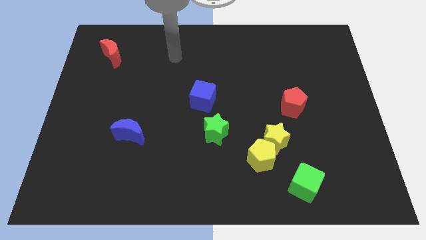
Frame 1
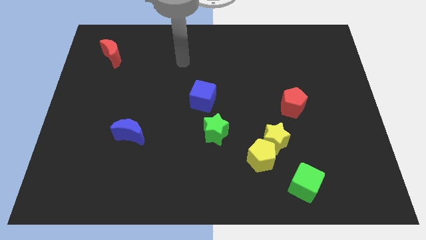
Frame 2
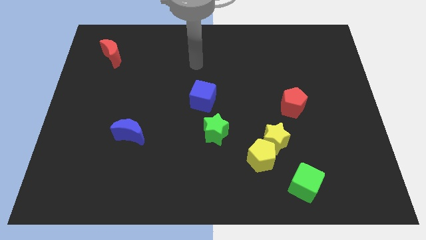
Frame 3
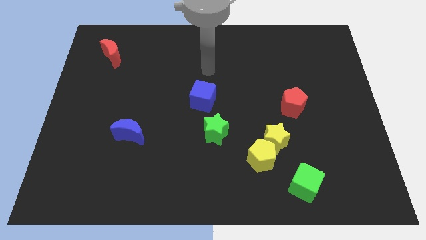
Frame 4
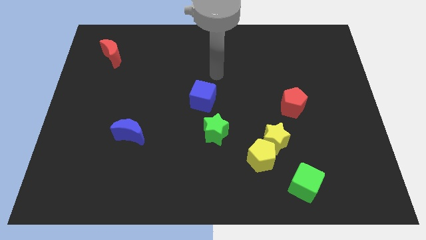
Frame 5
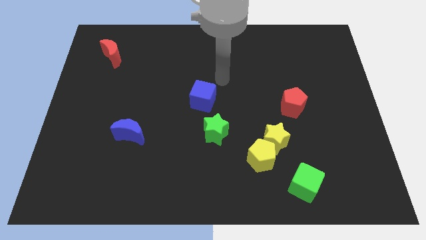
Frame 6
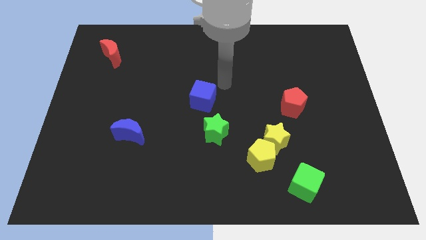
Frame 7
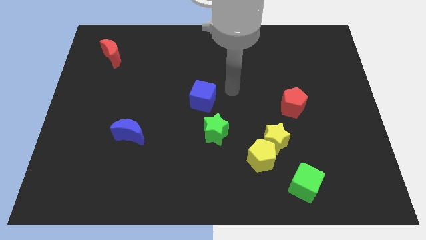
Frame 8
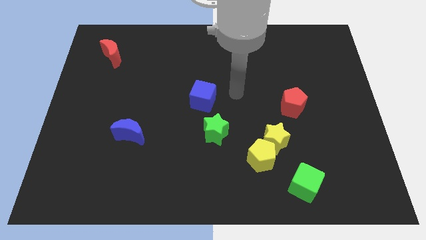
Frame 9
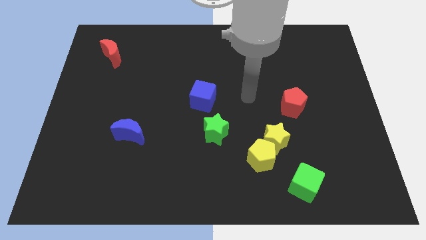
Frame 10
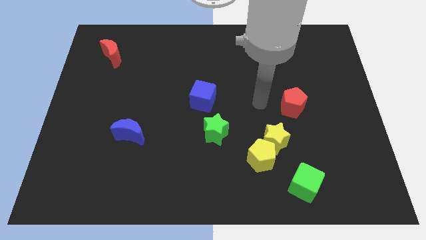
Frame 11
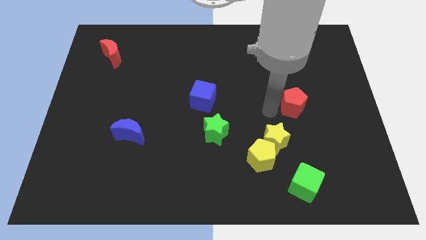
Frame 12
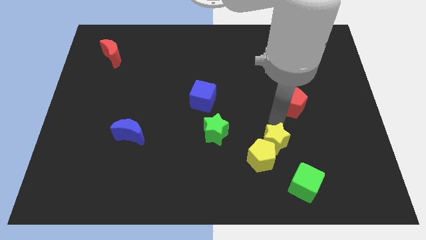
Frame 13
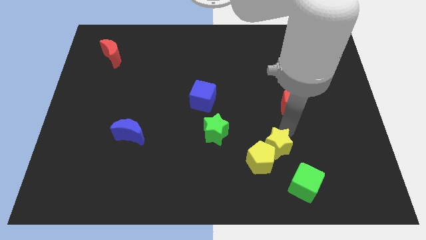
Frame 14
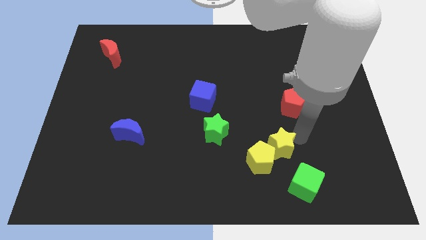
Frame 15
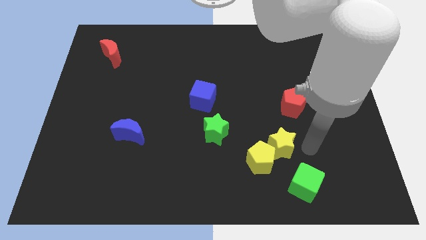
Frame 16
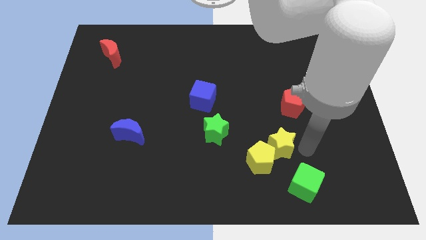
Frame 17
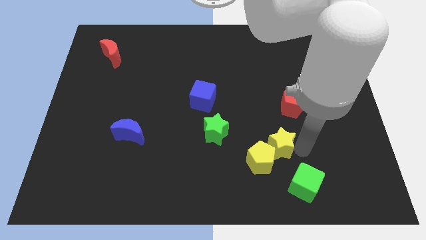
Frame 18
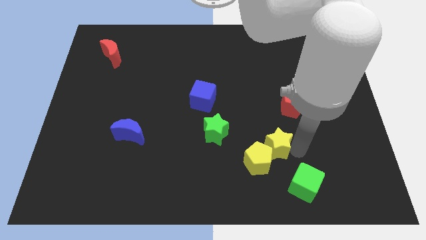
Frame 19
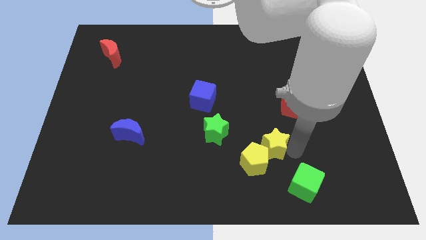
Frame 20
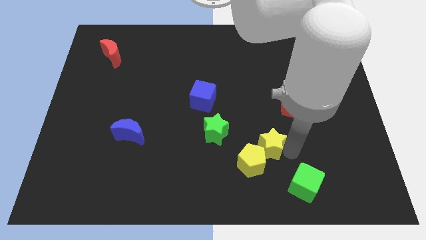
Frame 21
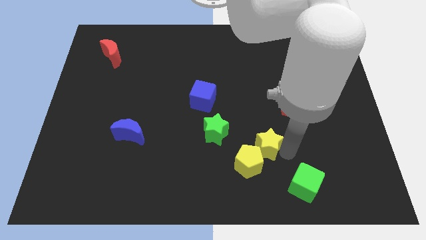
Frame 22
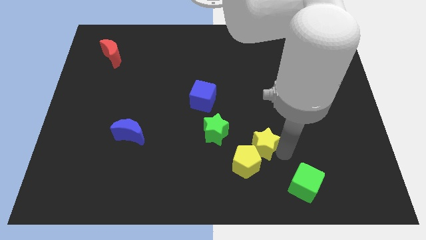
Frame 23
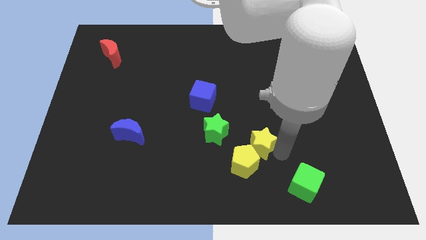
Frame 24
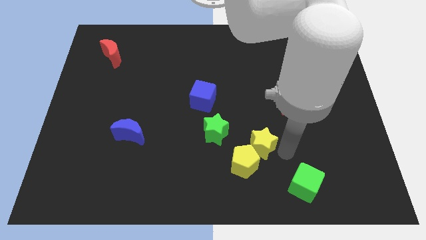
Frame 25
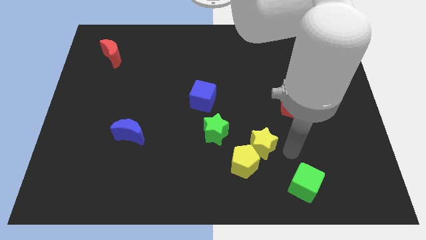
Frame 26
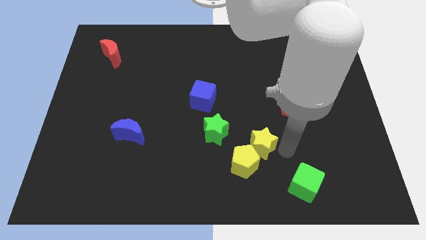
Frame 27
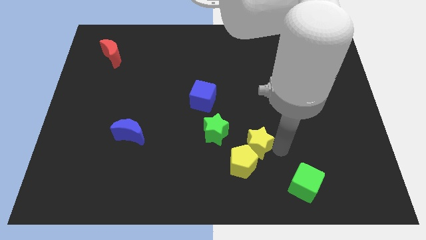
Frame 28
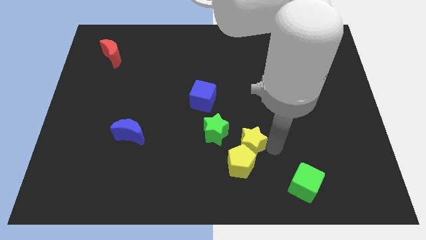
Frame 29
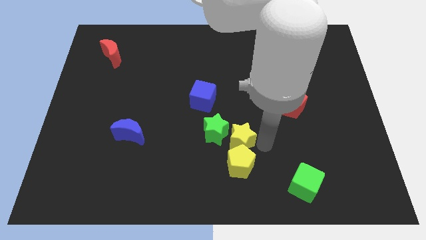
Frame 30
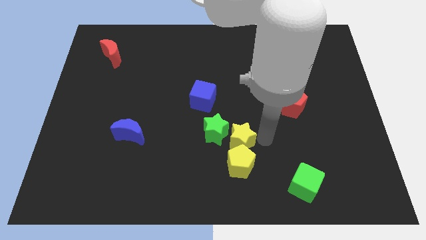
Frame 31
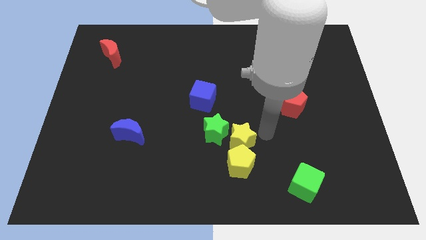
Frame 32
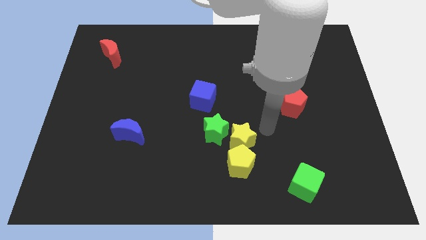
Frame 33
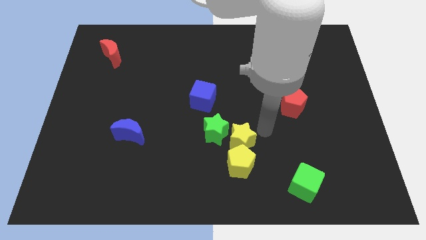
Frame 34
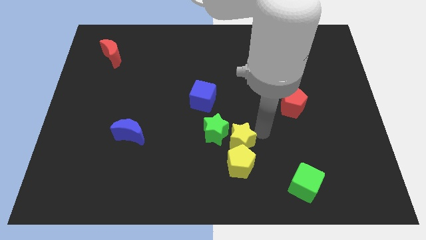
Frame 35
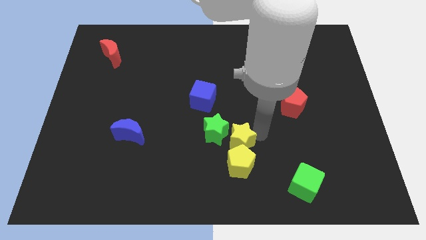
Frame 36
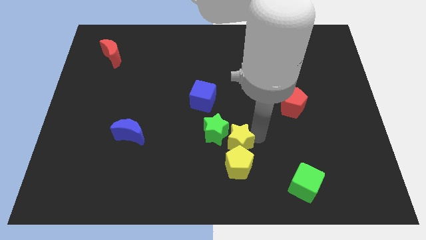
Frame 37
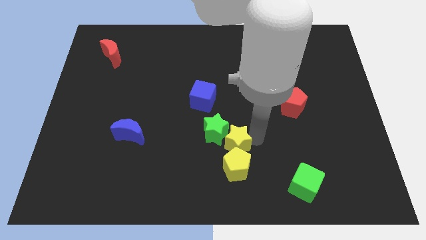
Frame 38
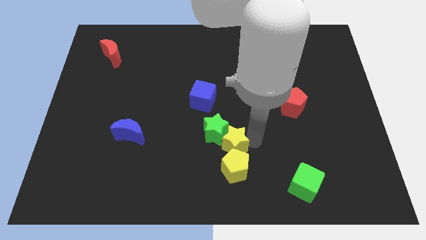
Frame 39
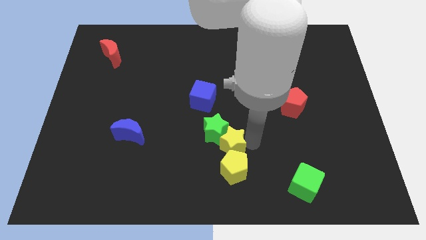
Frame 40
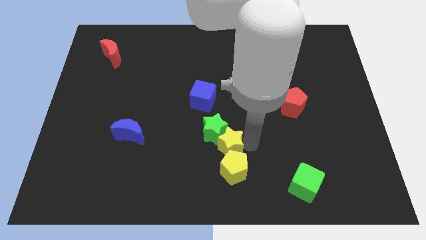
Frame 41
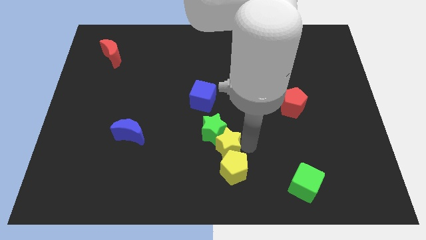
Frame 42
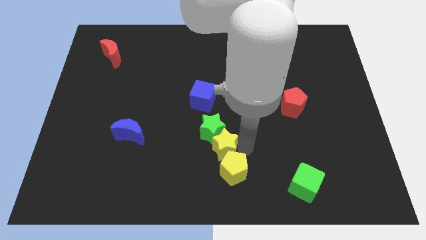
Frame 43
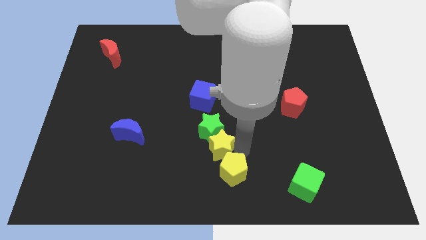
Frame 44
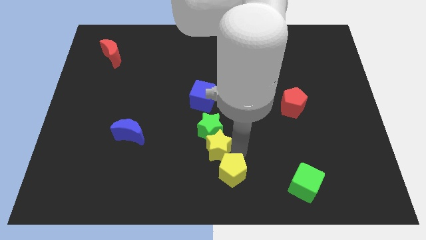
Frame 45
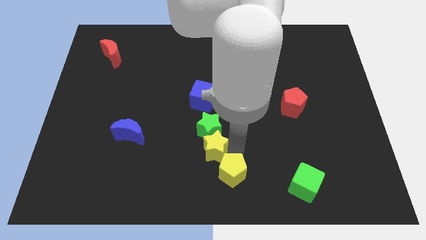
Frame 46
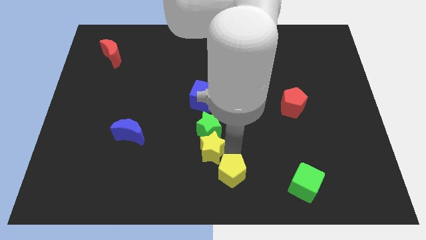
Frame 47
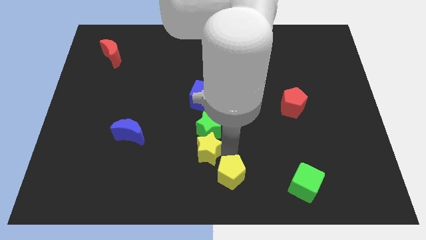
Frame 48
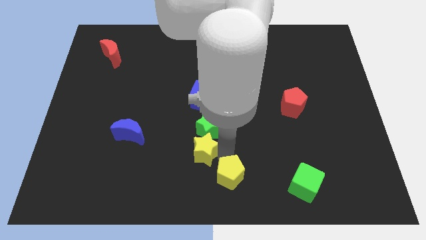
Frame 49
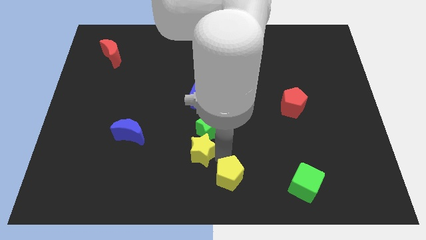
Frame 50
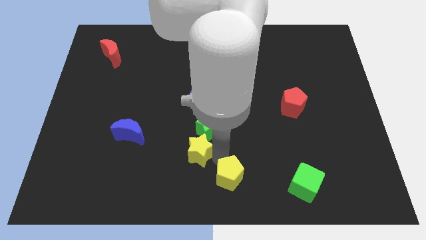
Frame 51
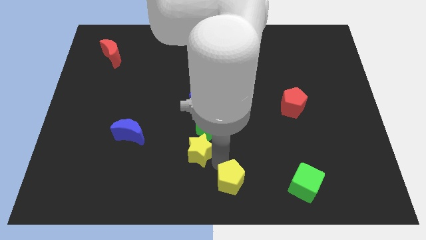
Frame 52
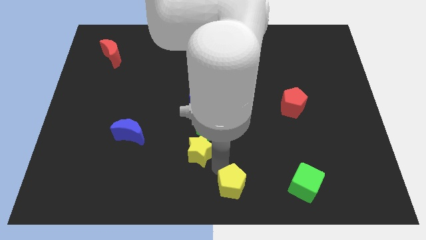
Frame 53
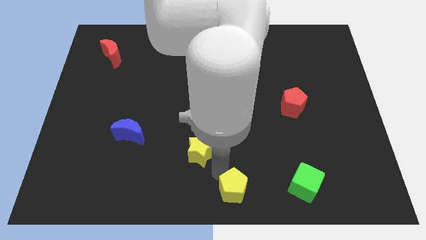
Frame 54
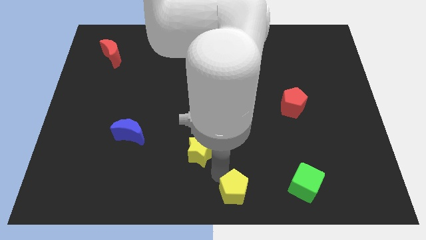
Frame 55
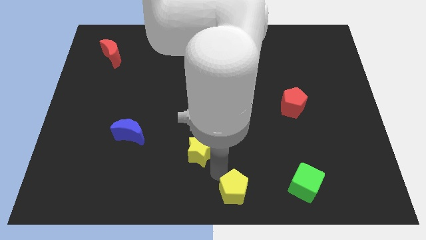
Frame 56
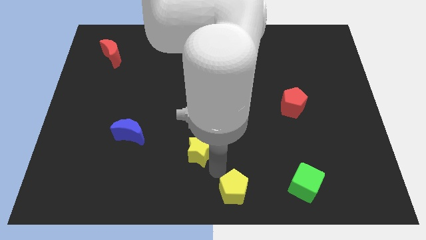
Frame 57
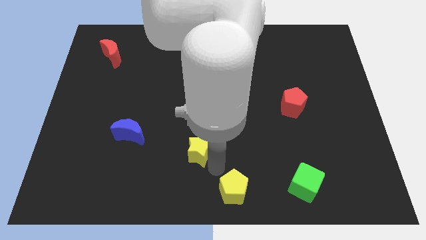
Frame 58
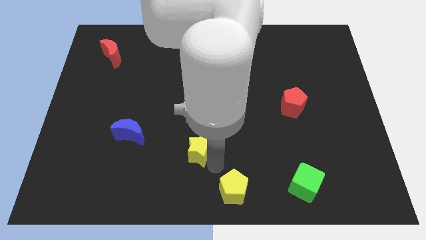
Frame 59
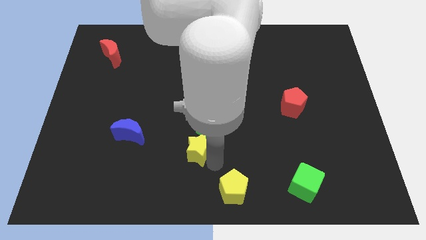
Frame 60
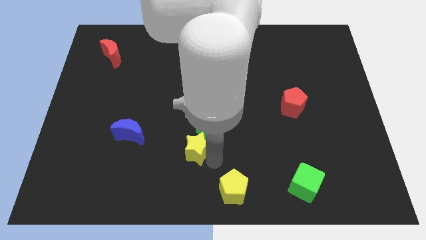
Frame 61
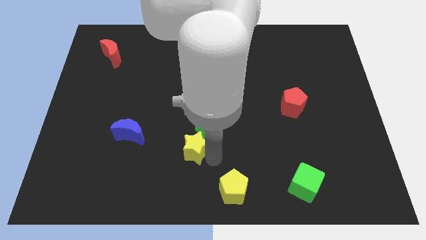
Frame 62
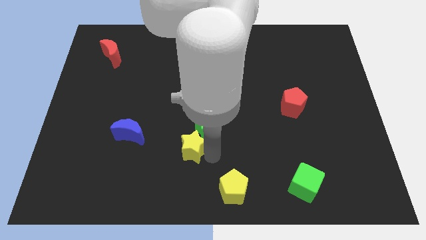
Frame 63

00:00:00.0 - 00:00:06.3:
move the yellow star to the right of the blue moon
